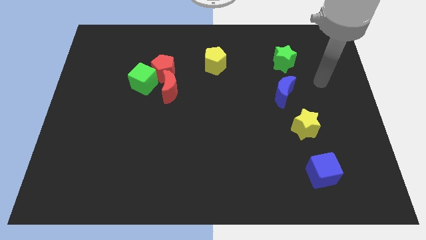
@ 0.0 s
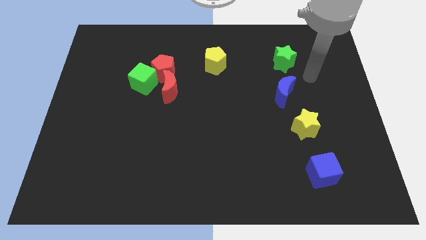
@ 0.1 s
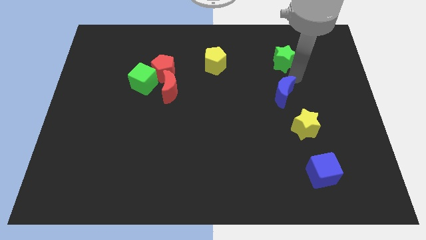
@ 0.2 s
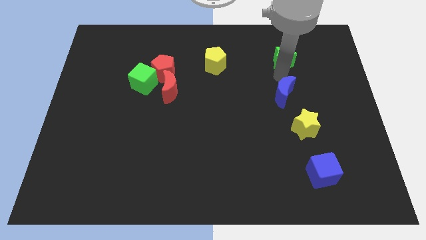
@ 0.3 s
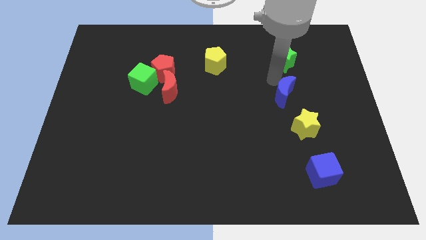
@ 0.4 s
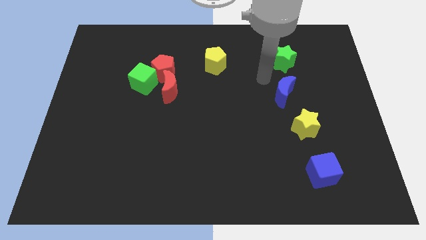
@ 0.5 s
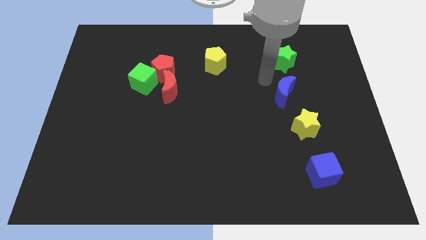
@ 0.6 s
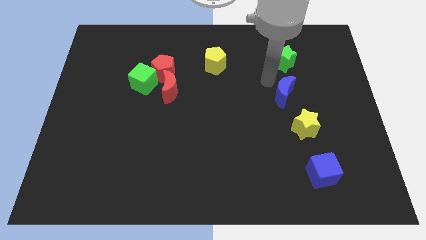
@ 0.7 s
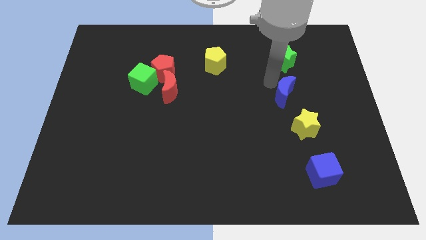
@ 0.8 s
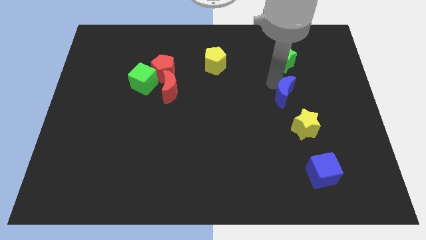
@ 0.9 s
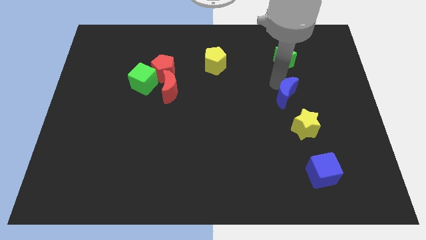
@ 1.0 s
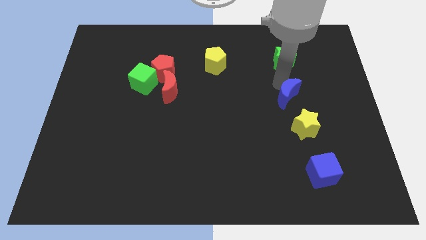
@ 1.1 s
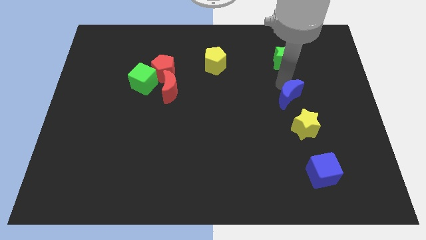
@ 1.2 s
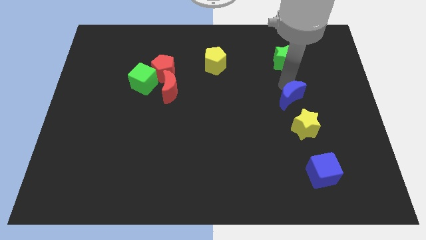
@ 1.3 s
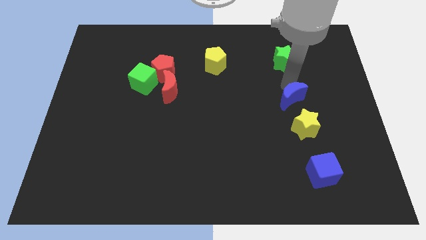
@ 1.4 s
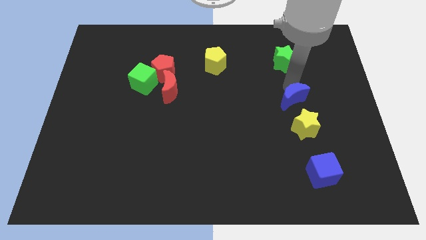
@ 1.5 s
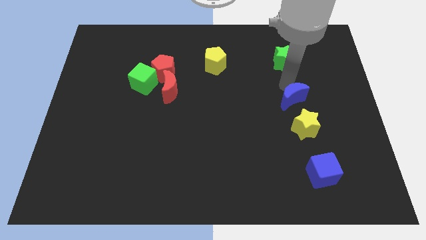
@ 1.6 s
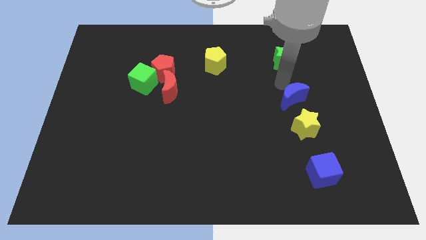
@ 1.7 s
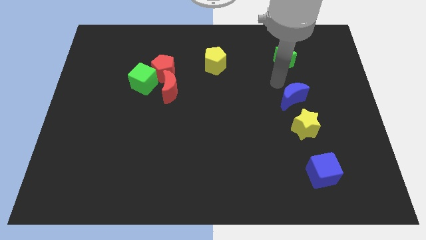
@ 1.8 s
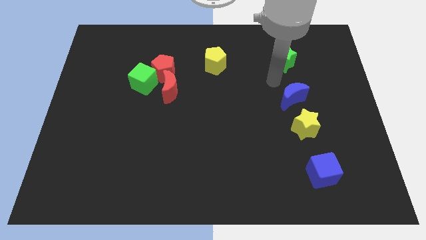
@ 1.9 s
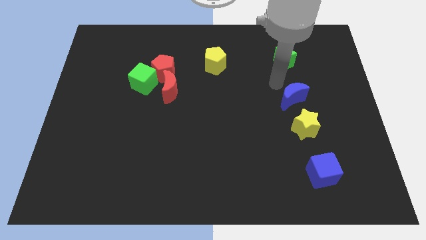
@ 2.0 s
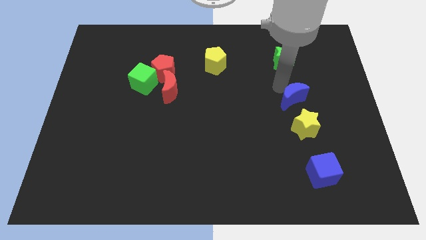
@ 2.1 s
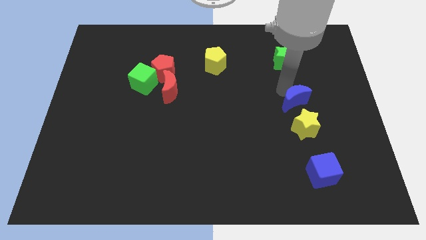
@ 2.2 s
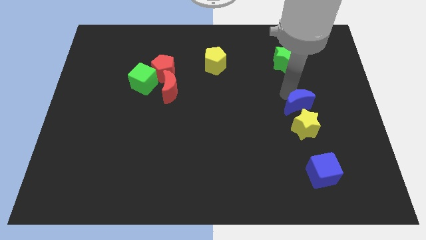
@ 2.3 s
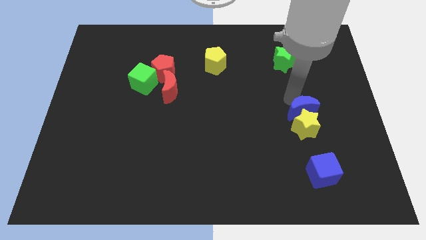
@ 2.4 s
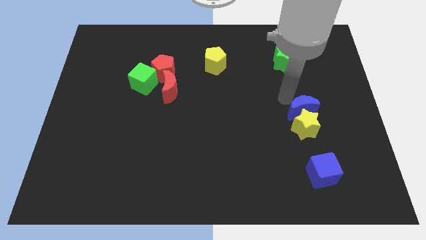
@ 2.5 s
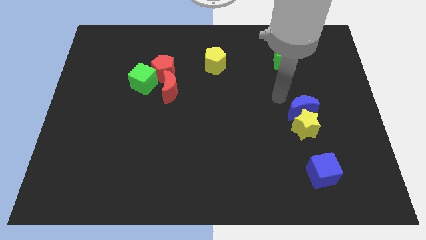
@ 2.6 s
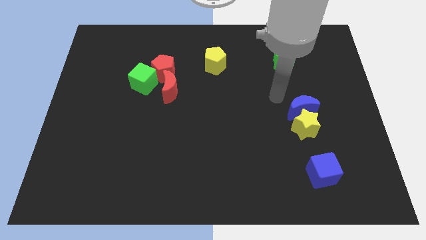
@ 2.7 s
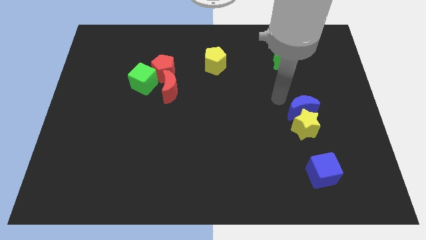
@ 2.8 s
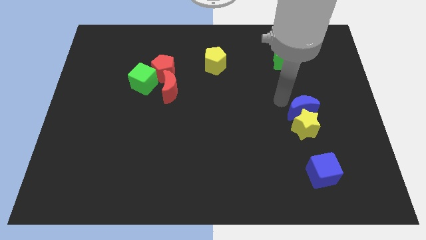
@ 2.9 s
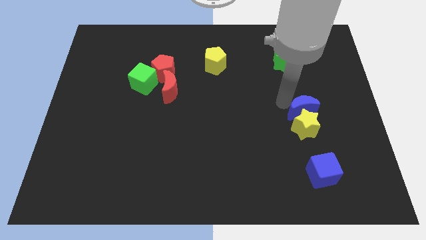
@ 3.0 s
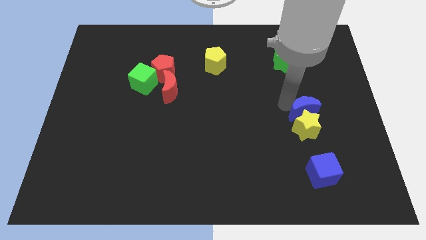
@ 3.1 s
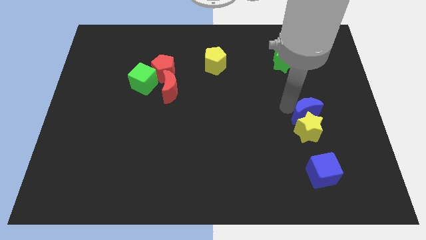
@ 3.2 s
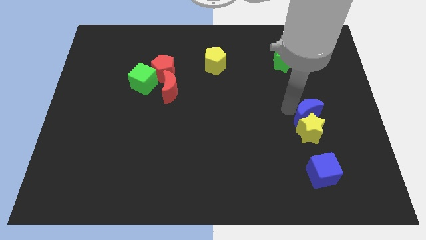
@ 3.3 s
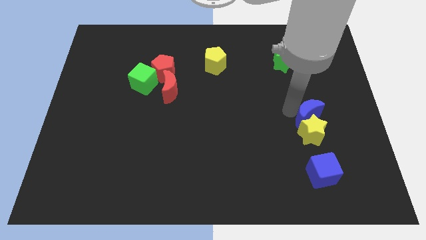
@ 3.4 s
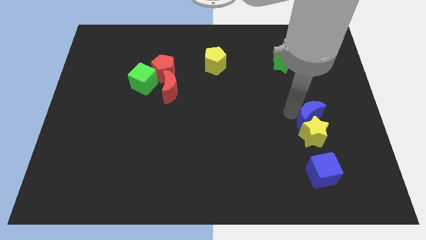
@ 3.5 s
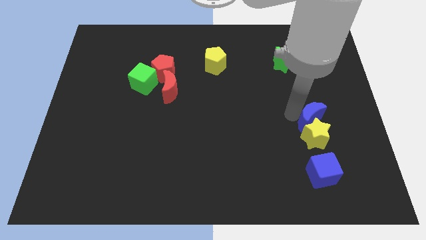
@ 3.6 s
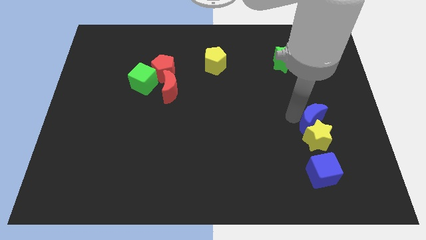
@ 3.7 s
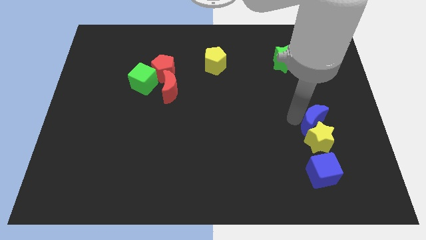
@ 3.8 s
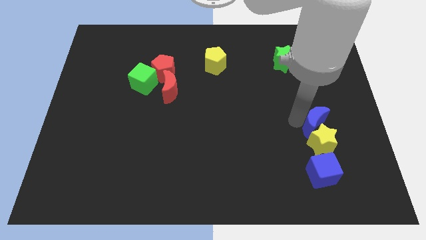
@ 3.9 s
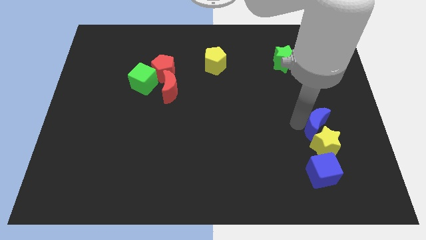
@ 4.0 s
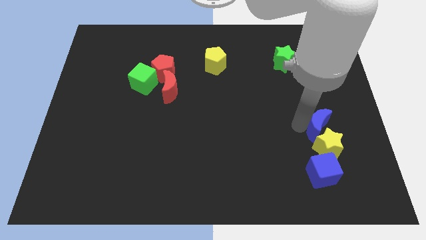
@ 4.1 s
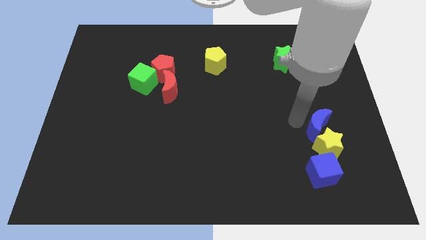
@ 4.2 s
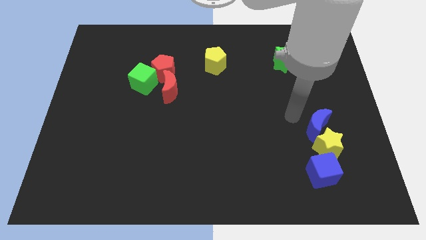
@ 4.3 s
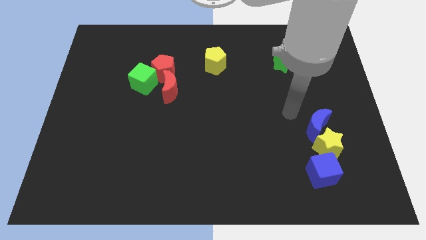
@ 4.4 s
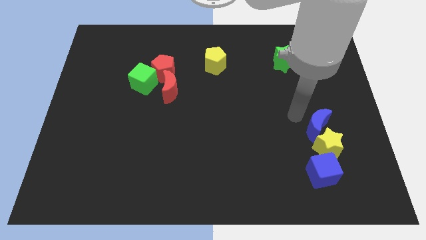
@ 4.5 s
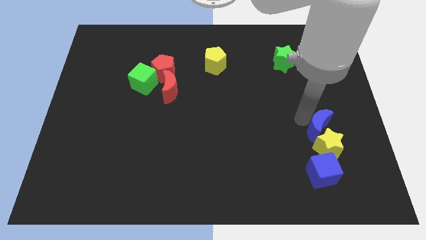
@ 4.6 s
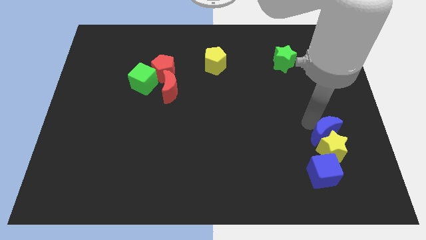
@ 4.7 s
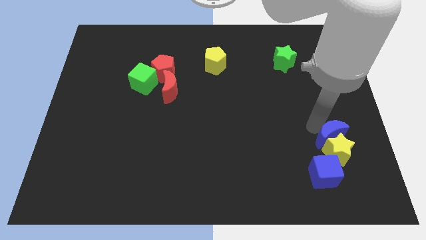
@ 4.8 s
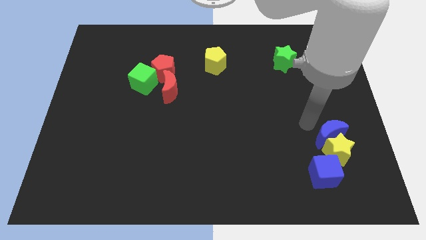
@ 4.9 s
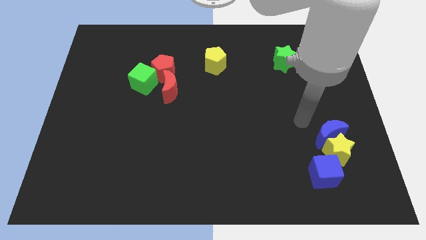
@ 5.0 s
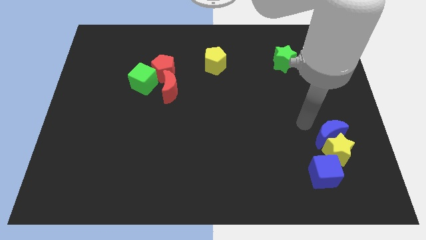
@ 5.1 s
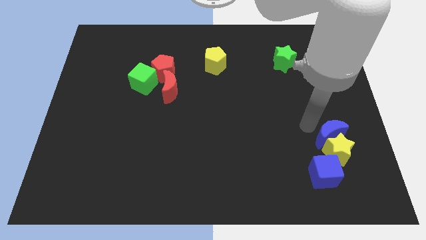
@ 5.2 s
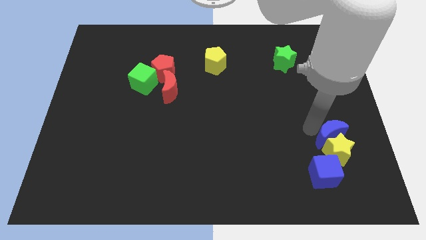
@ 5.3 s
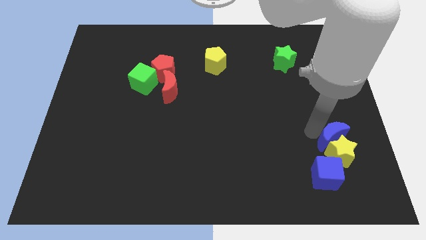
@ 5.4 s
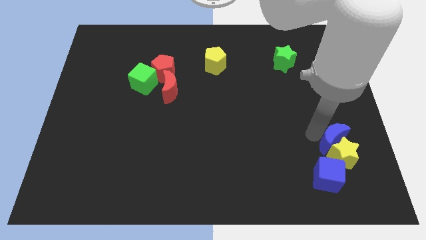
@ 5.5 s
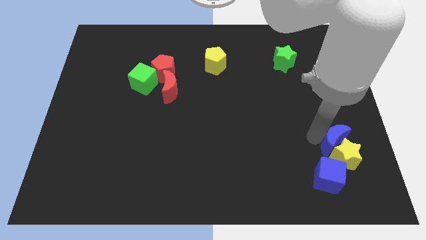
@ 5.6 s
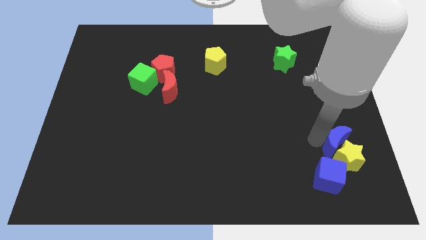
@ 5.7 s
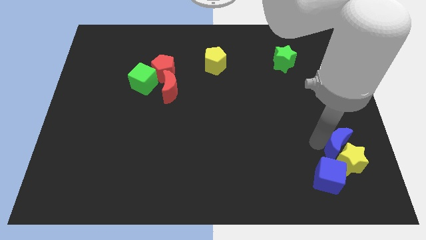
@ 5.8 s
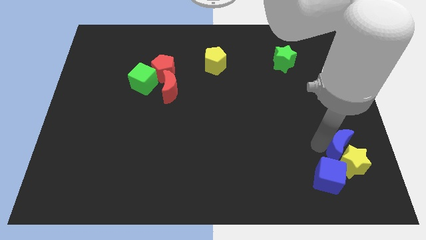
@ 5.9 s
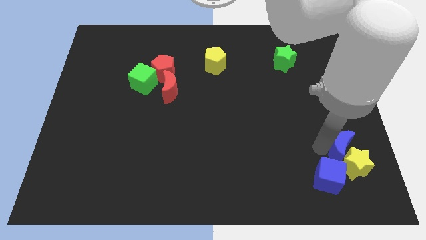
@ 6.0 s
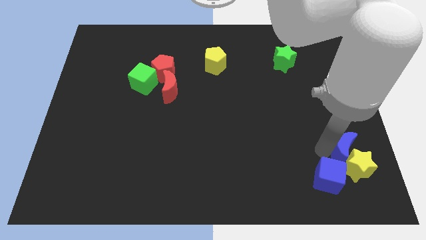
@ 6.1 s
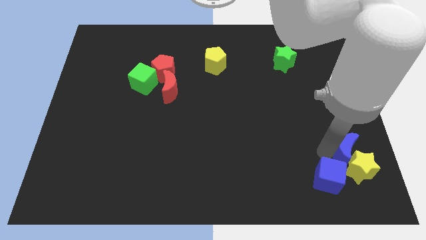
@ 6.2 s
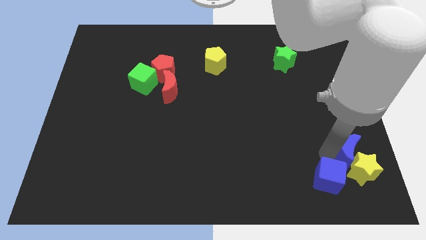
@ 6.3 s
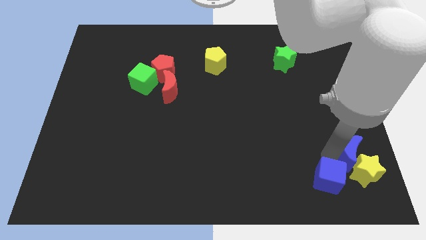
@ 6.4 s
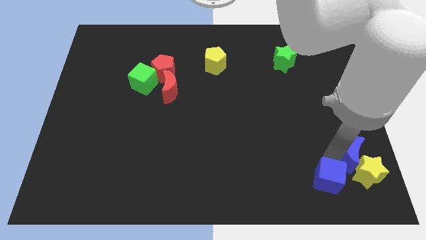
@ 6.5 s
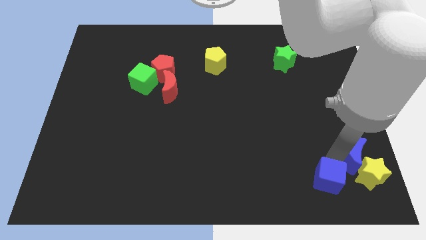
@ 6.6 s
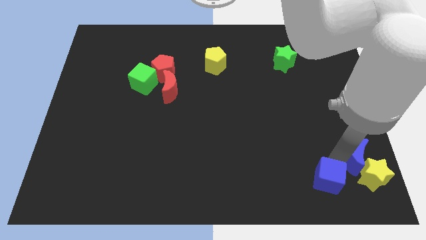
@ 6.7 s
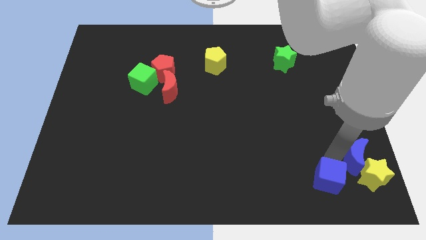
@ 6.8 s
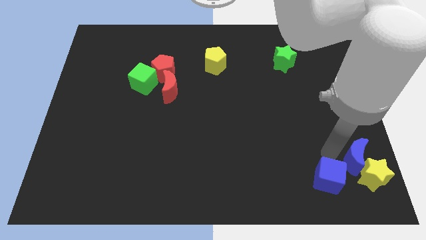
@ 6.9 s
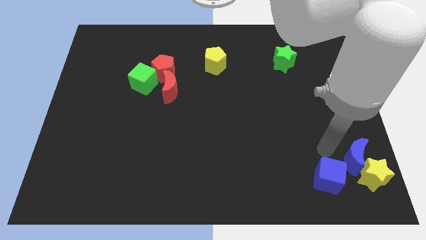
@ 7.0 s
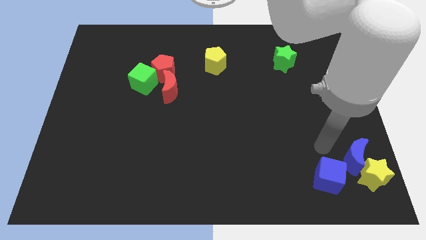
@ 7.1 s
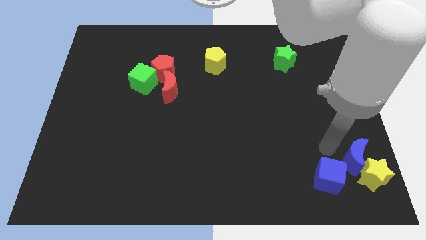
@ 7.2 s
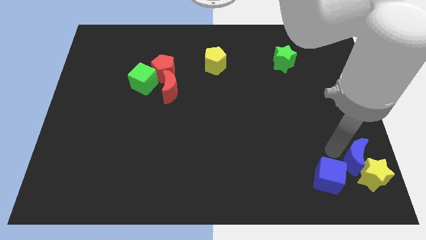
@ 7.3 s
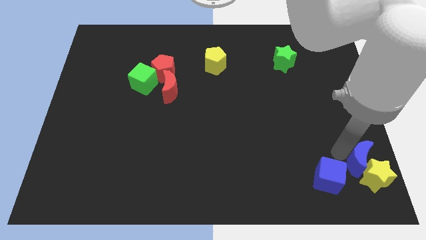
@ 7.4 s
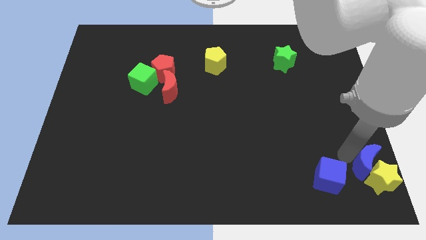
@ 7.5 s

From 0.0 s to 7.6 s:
move the blue moon to the bottom right of the board
